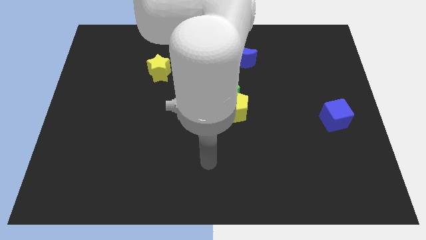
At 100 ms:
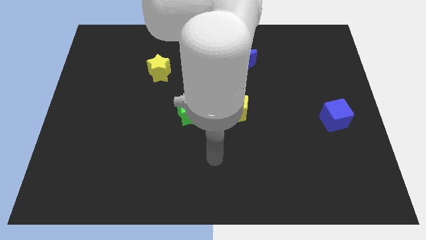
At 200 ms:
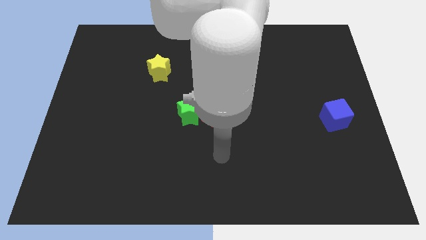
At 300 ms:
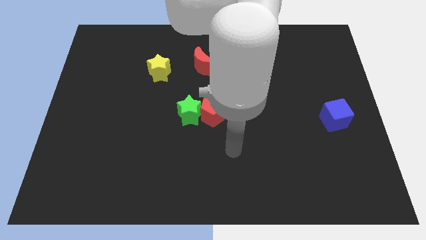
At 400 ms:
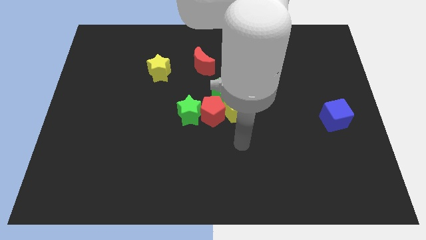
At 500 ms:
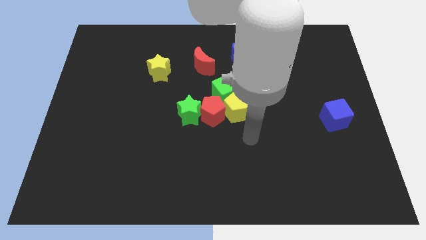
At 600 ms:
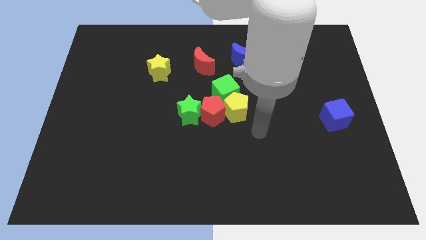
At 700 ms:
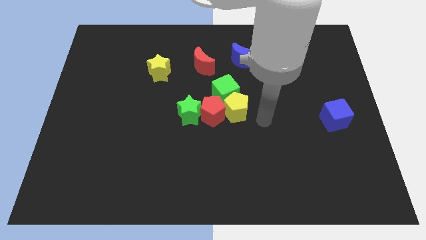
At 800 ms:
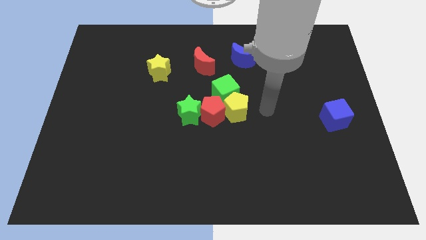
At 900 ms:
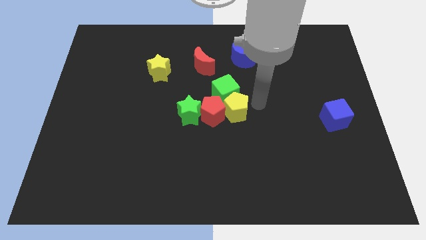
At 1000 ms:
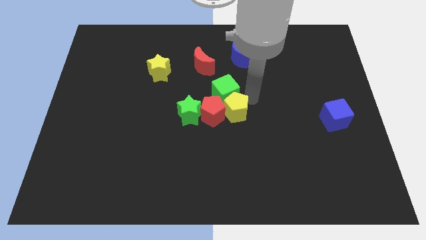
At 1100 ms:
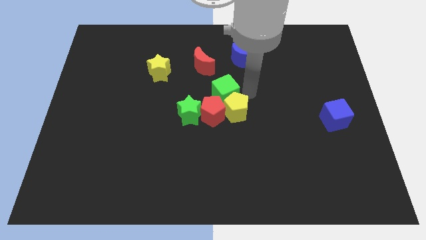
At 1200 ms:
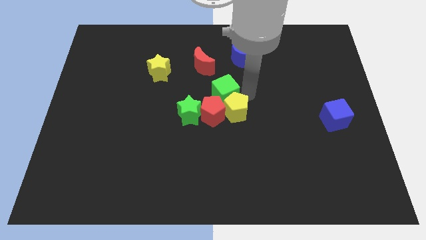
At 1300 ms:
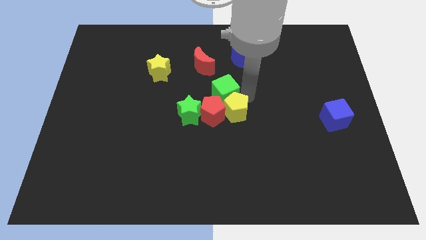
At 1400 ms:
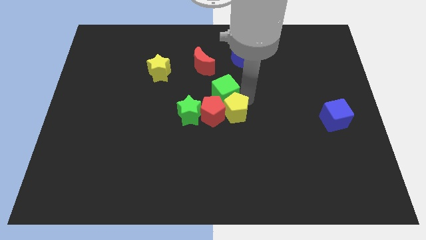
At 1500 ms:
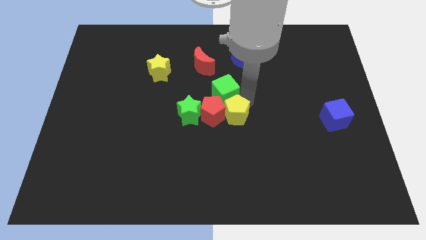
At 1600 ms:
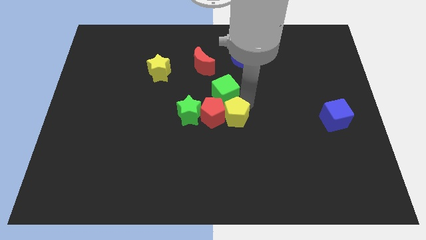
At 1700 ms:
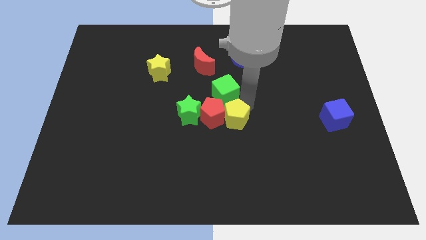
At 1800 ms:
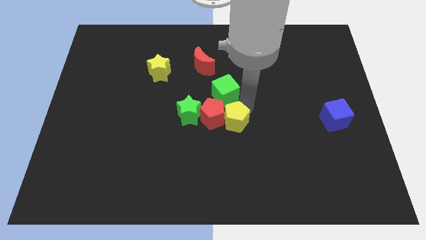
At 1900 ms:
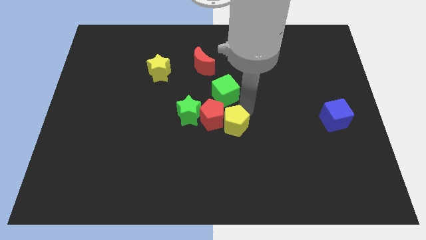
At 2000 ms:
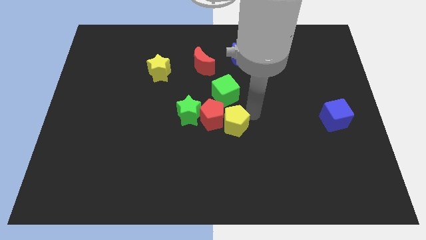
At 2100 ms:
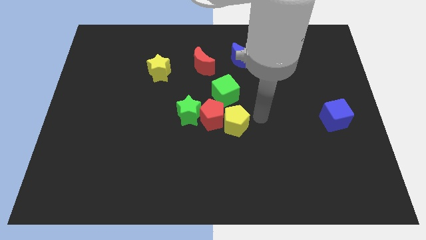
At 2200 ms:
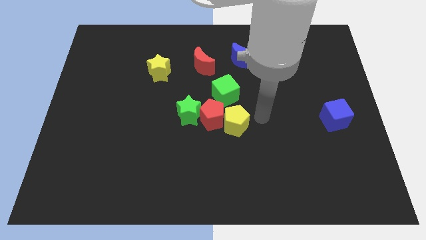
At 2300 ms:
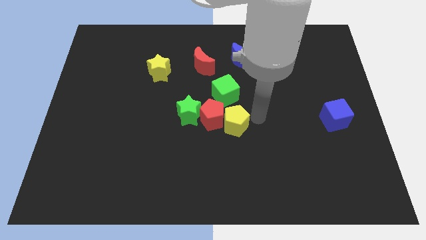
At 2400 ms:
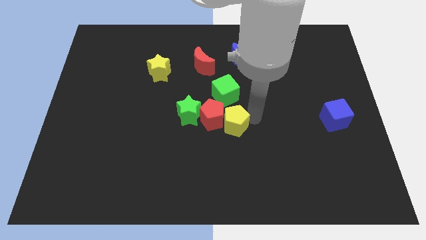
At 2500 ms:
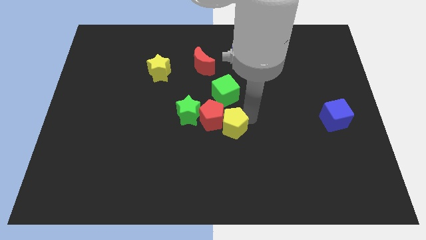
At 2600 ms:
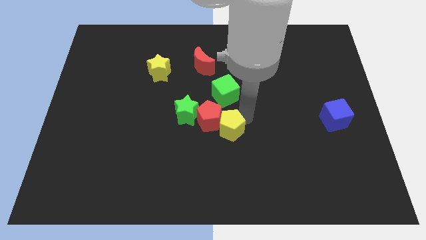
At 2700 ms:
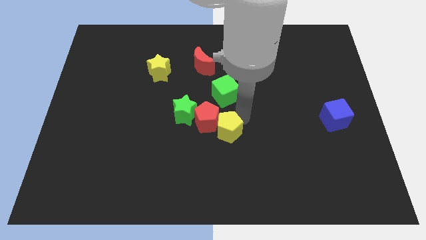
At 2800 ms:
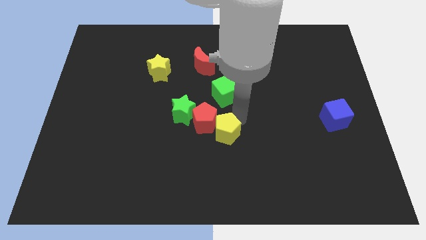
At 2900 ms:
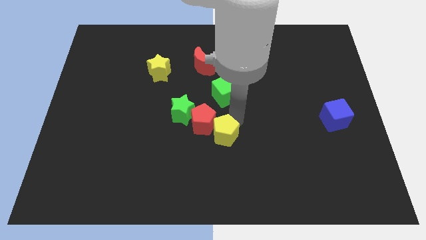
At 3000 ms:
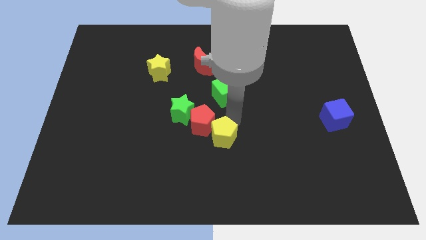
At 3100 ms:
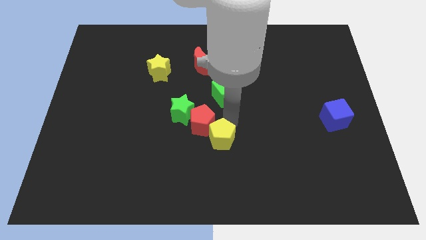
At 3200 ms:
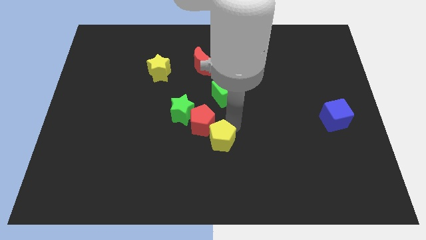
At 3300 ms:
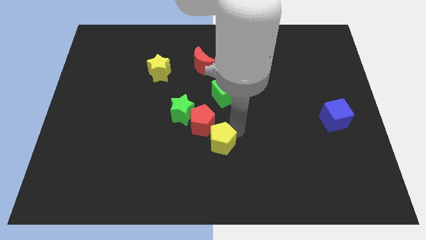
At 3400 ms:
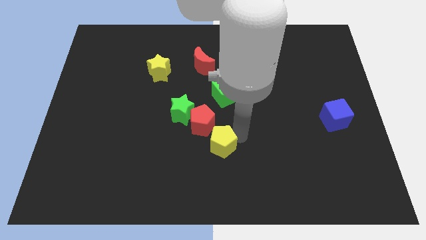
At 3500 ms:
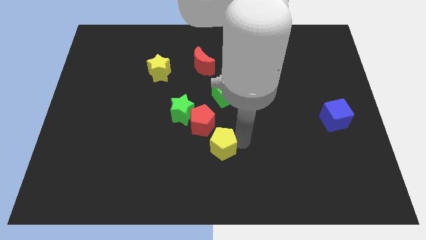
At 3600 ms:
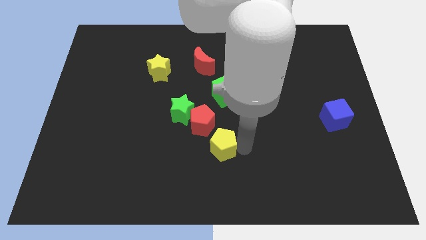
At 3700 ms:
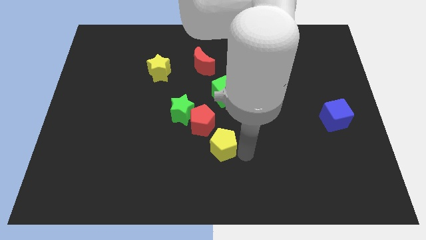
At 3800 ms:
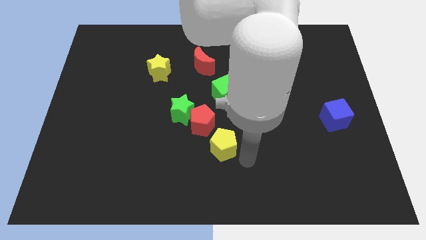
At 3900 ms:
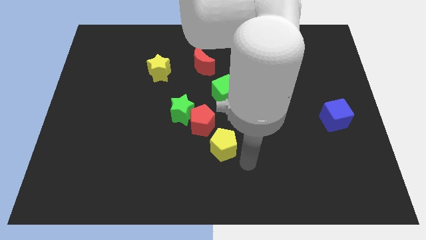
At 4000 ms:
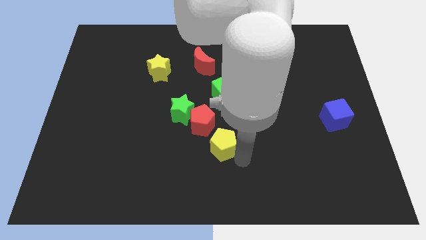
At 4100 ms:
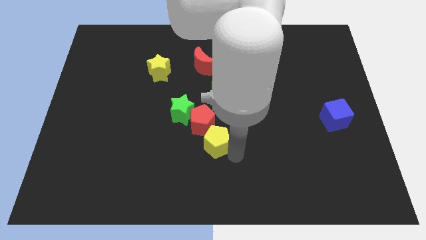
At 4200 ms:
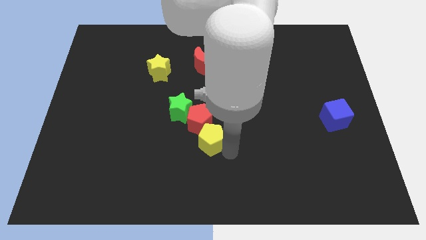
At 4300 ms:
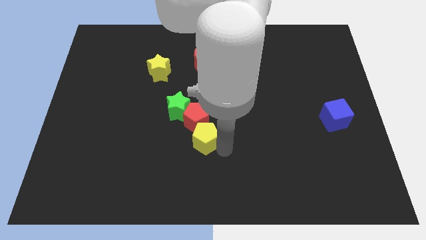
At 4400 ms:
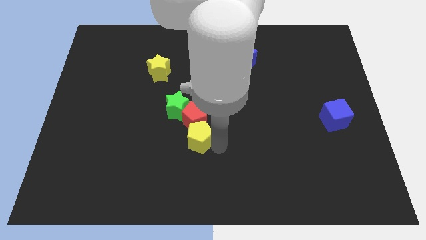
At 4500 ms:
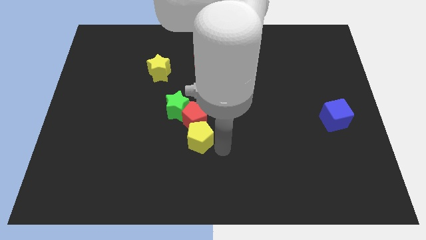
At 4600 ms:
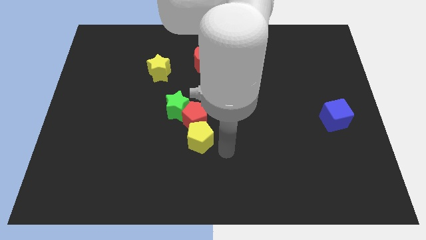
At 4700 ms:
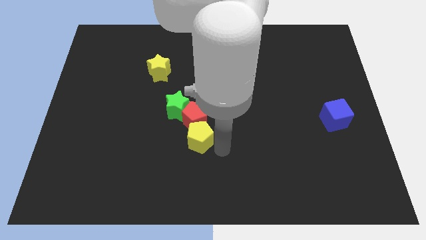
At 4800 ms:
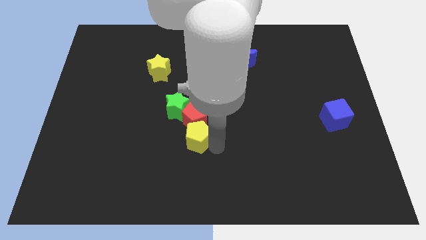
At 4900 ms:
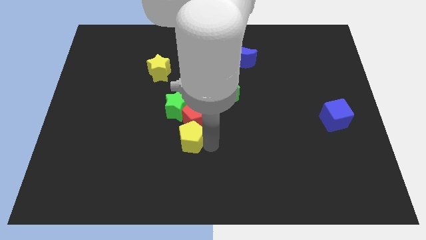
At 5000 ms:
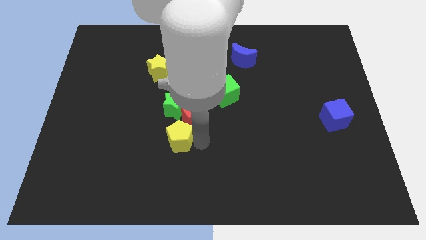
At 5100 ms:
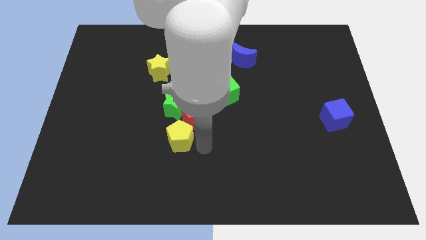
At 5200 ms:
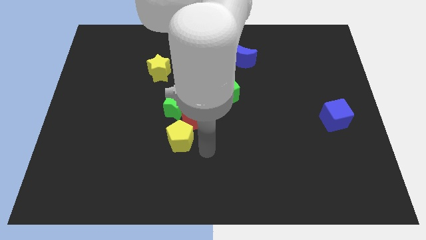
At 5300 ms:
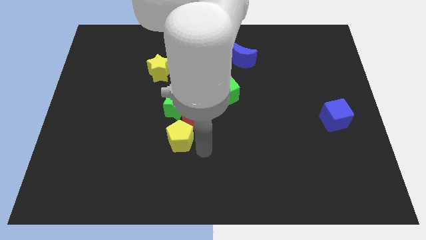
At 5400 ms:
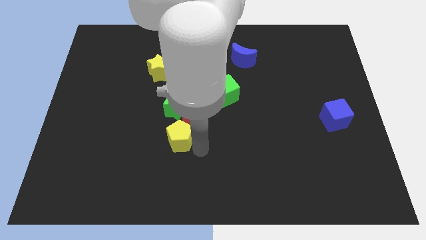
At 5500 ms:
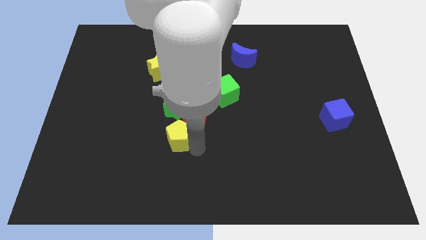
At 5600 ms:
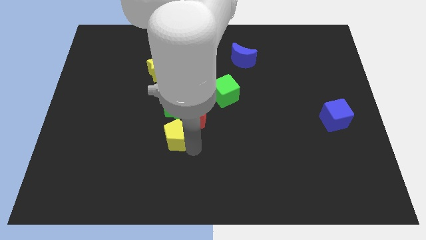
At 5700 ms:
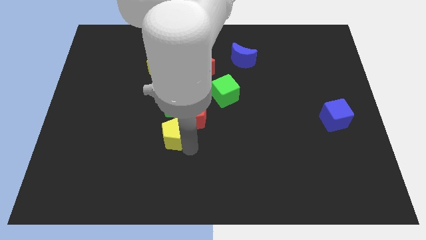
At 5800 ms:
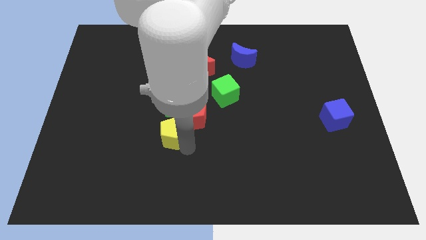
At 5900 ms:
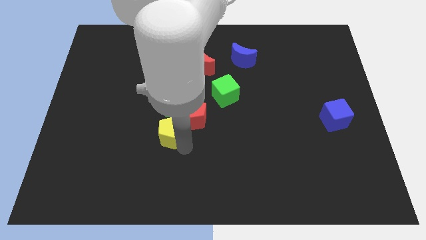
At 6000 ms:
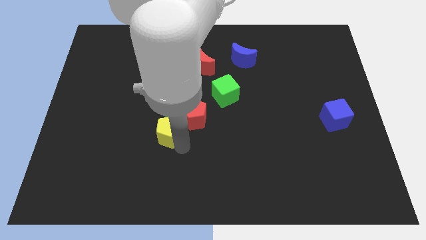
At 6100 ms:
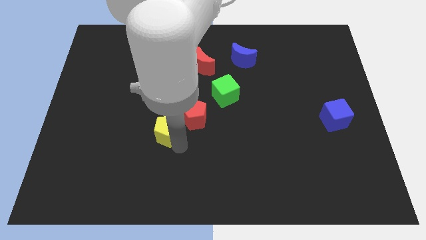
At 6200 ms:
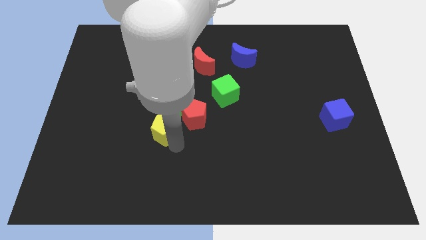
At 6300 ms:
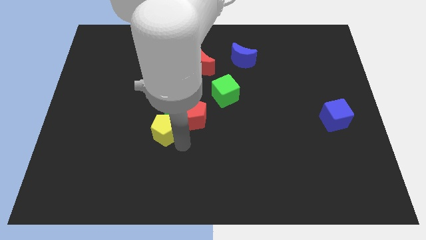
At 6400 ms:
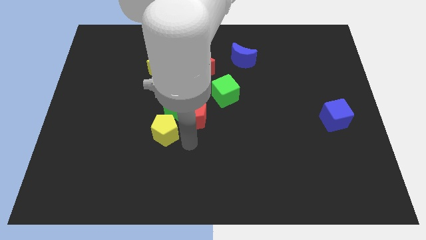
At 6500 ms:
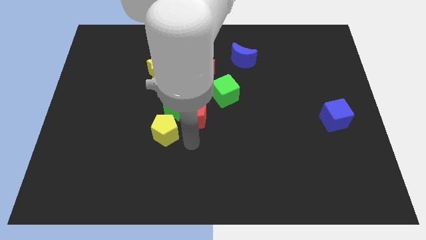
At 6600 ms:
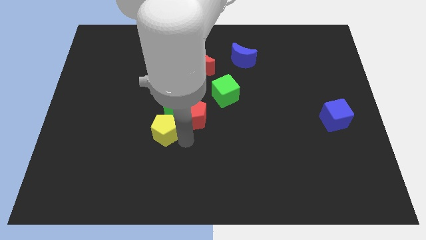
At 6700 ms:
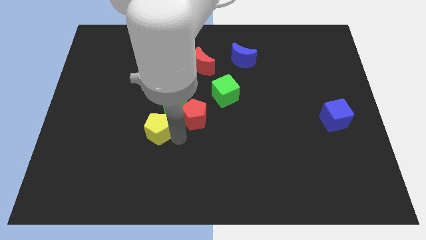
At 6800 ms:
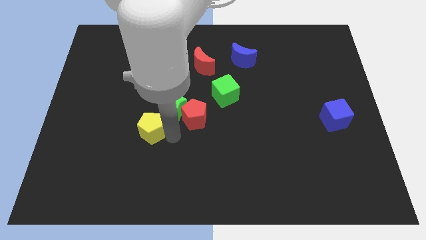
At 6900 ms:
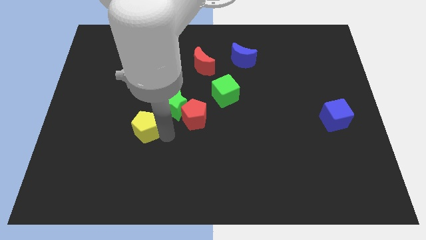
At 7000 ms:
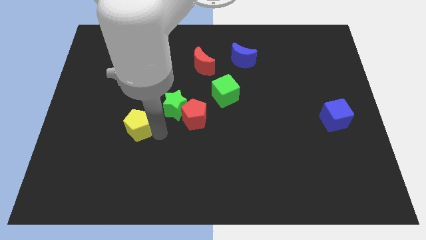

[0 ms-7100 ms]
push the yellow pentagon left

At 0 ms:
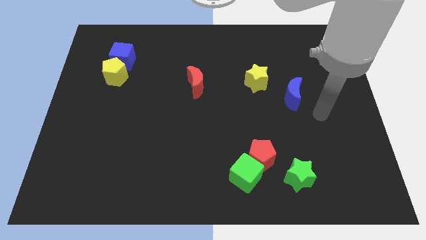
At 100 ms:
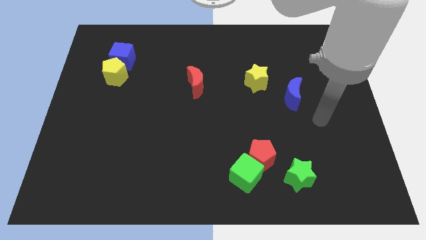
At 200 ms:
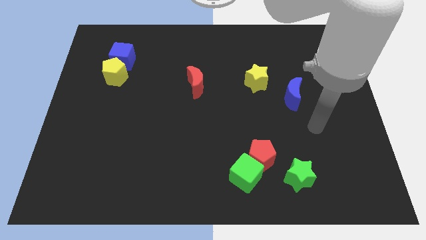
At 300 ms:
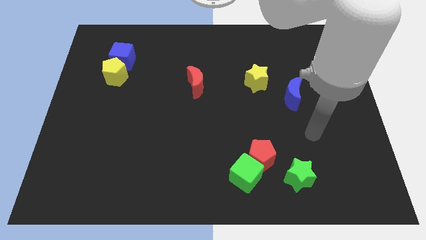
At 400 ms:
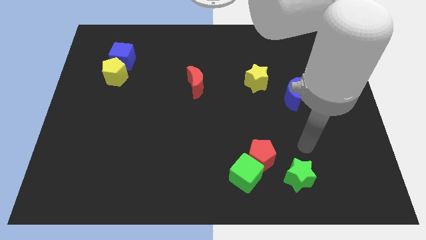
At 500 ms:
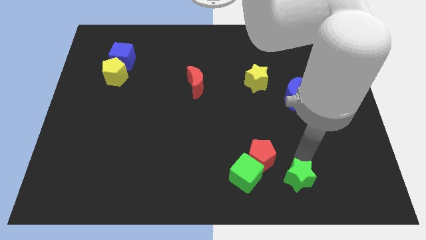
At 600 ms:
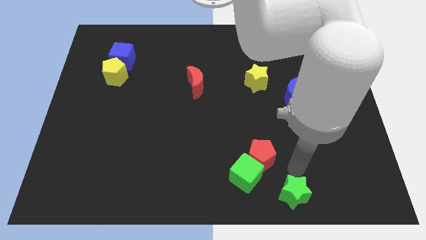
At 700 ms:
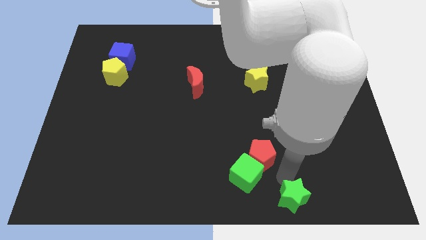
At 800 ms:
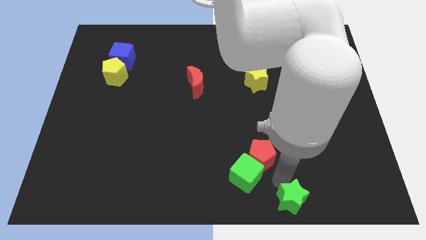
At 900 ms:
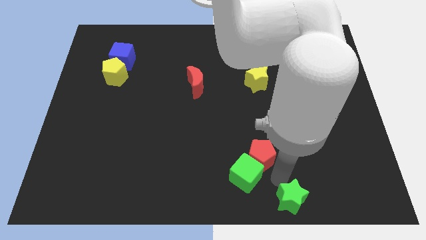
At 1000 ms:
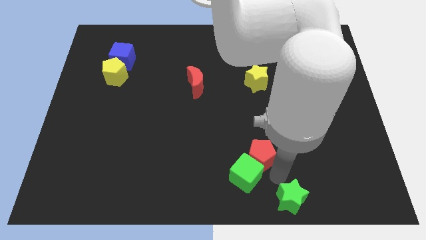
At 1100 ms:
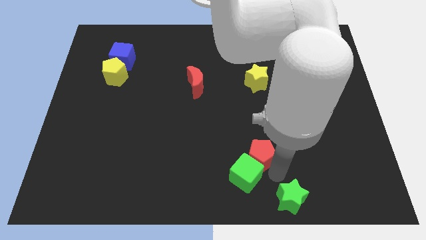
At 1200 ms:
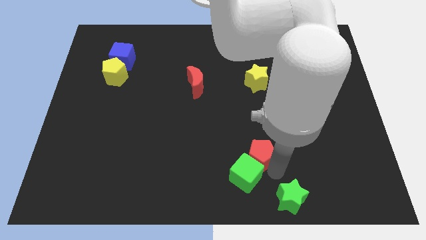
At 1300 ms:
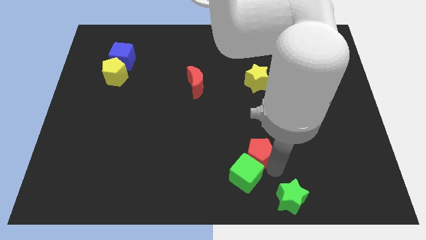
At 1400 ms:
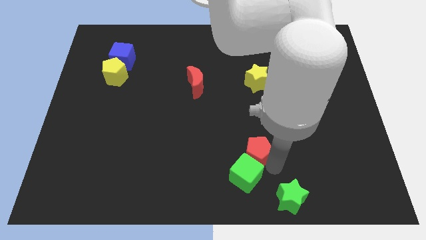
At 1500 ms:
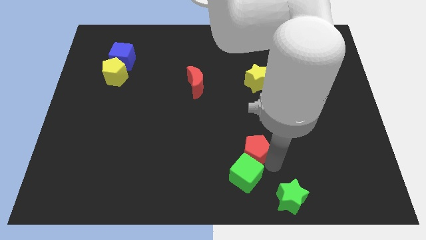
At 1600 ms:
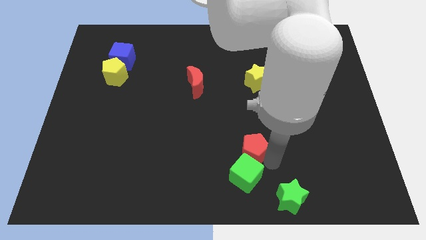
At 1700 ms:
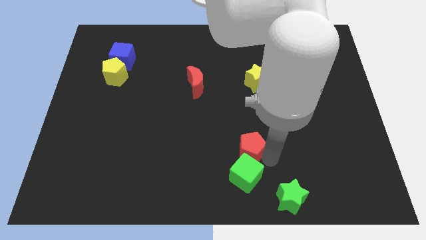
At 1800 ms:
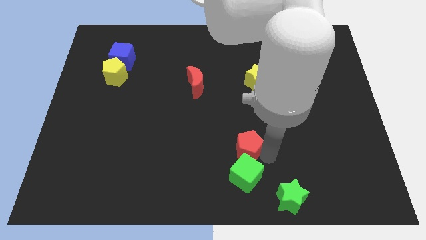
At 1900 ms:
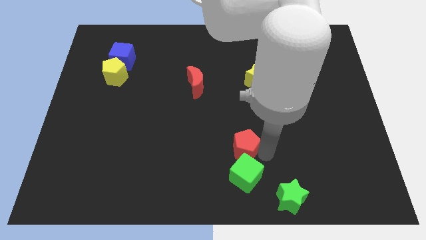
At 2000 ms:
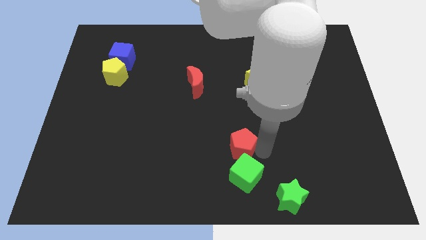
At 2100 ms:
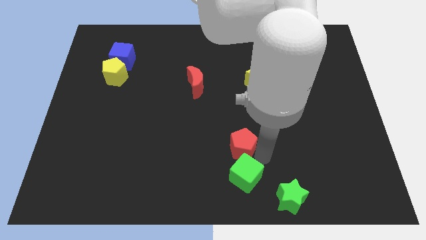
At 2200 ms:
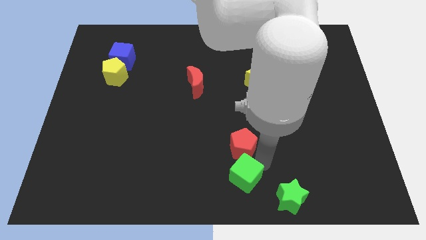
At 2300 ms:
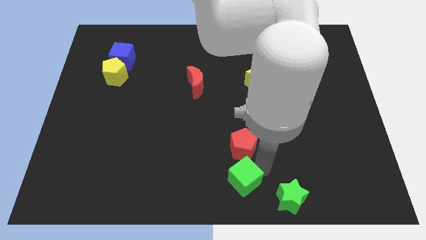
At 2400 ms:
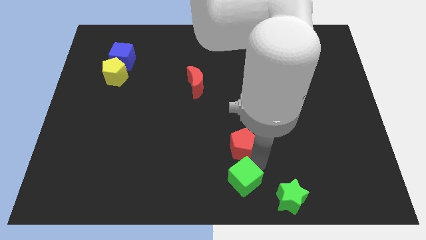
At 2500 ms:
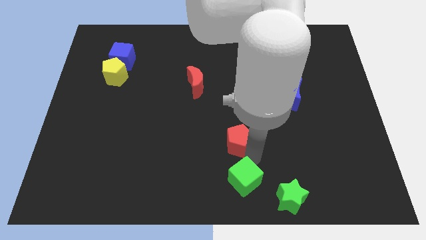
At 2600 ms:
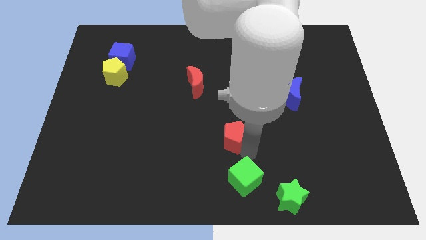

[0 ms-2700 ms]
push the red pentagon a bit upwards and to the left
